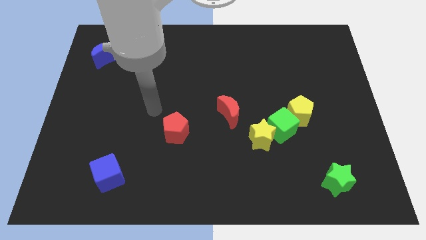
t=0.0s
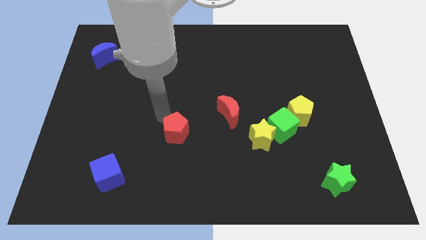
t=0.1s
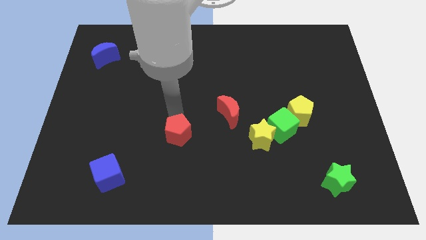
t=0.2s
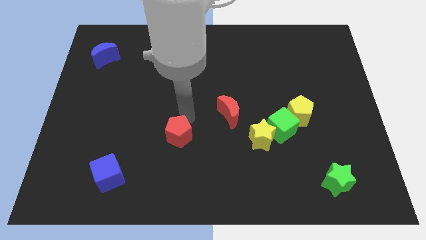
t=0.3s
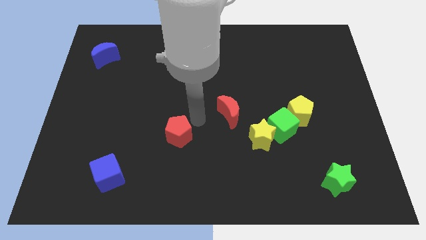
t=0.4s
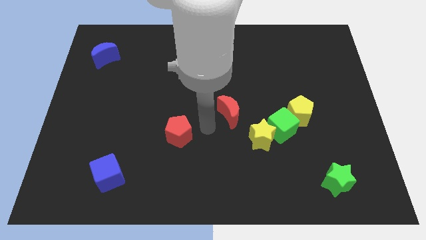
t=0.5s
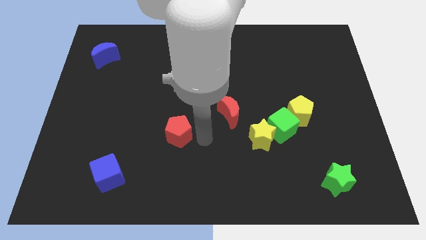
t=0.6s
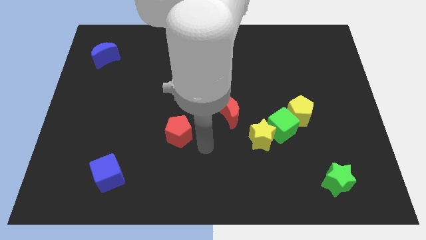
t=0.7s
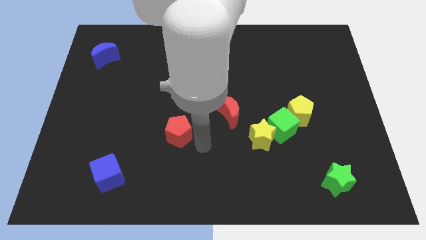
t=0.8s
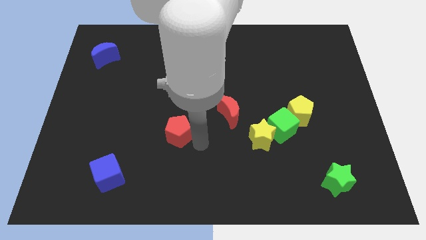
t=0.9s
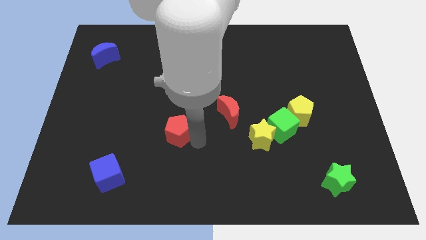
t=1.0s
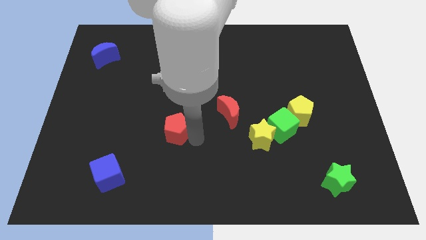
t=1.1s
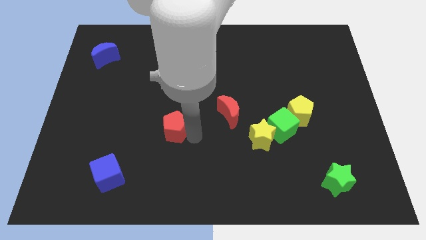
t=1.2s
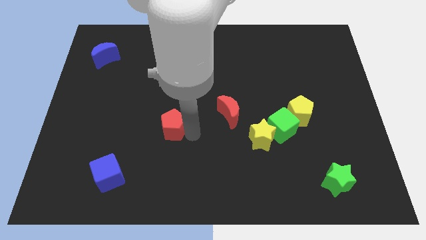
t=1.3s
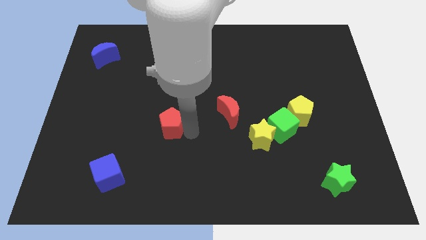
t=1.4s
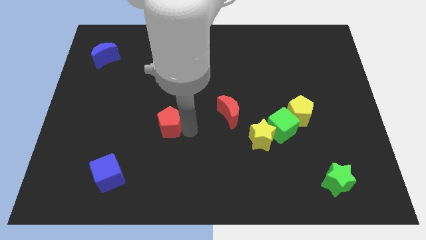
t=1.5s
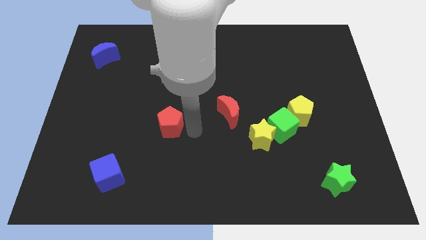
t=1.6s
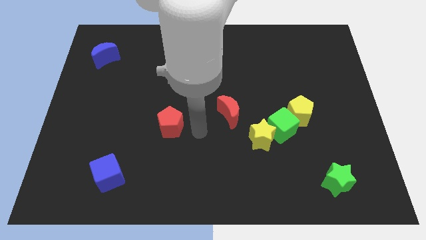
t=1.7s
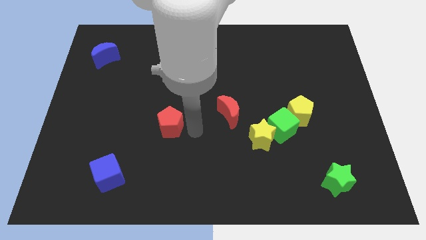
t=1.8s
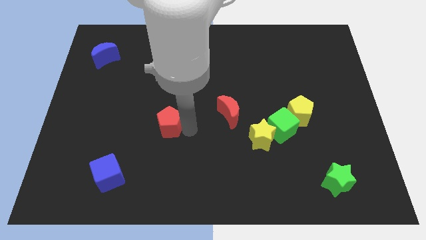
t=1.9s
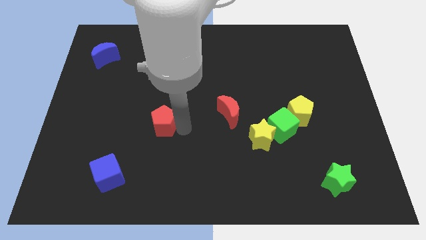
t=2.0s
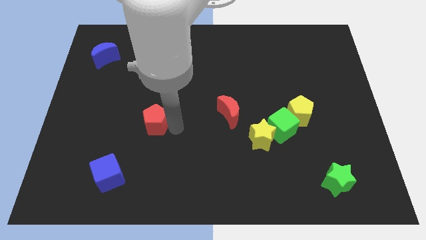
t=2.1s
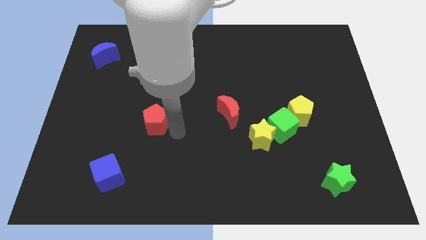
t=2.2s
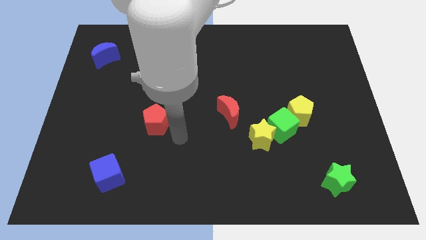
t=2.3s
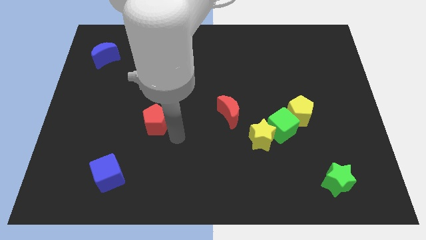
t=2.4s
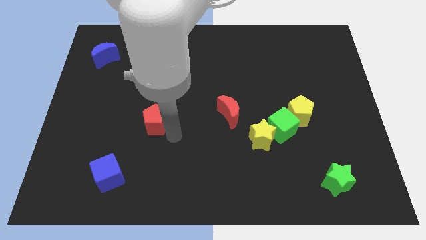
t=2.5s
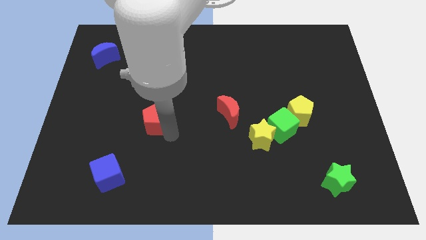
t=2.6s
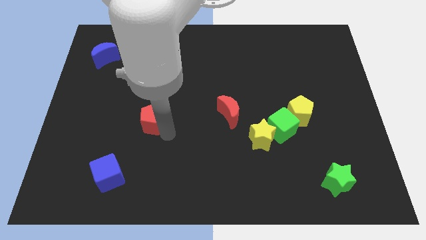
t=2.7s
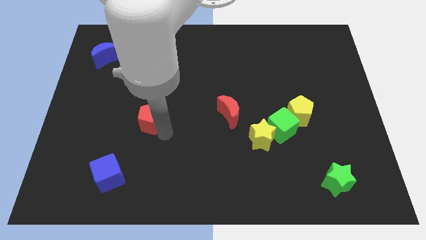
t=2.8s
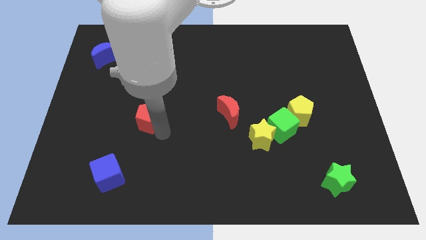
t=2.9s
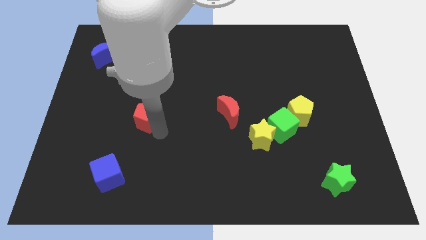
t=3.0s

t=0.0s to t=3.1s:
slightly push the red pentagon upwards and to the left

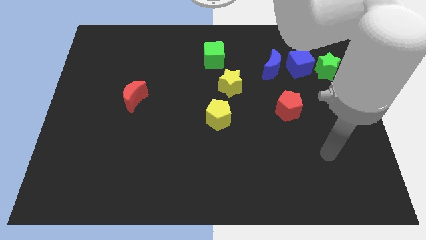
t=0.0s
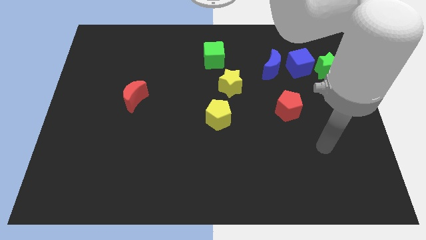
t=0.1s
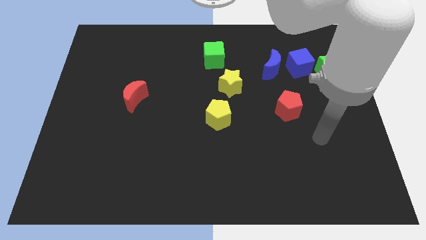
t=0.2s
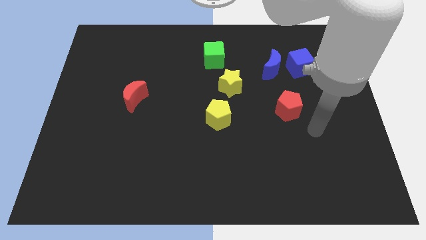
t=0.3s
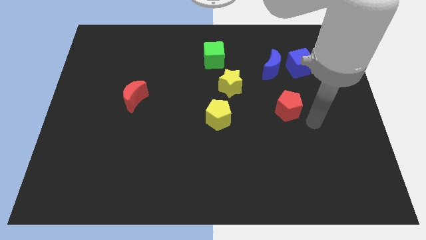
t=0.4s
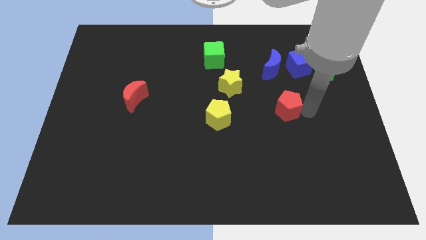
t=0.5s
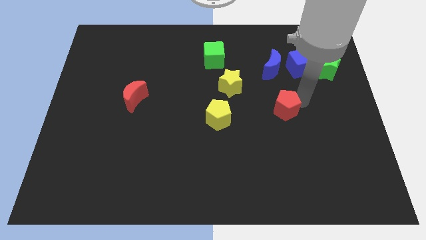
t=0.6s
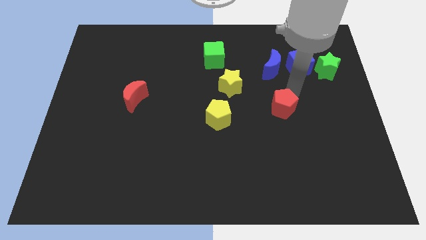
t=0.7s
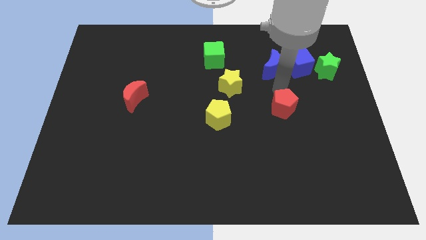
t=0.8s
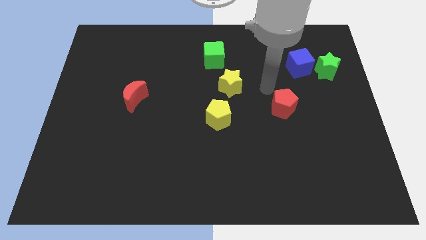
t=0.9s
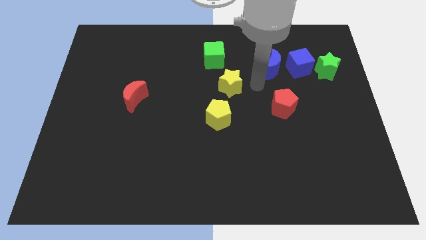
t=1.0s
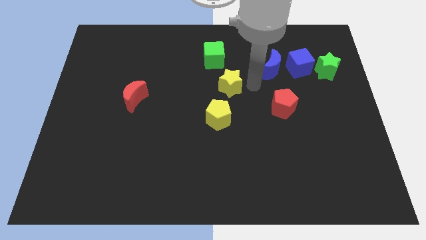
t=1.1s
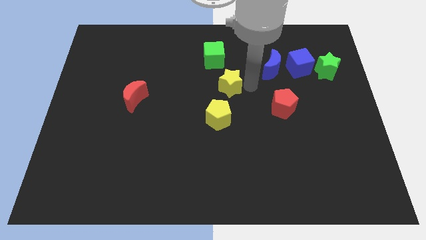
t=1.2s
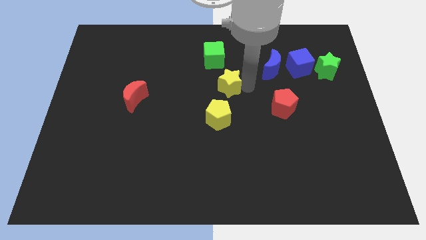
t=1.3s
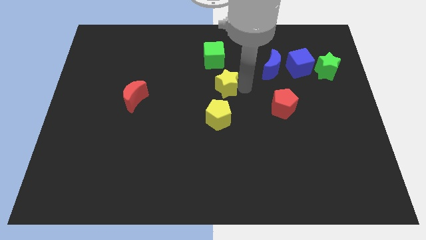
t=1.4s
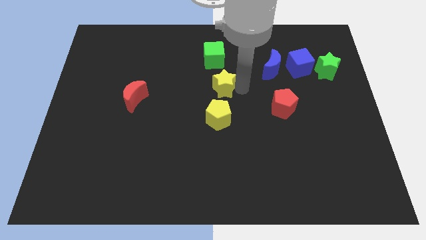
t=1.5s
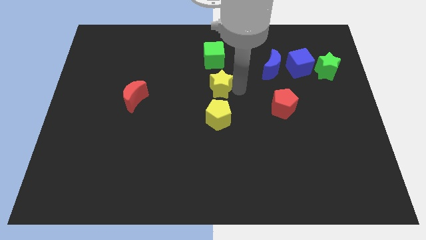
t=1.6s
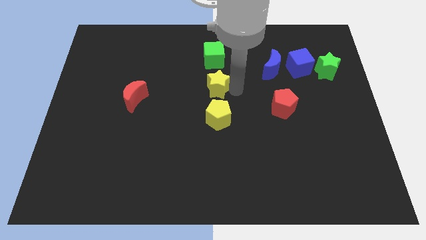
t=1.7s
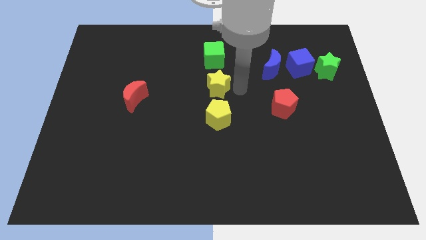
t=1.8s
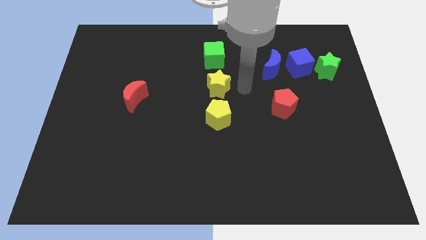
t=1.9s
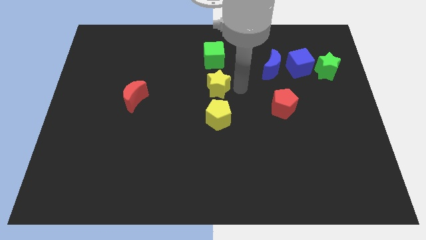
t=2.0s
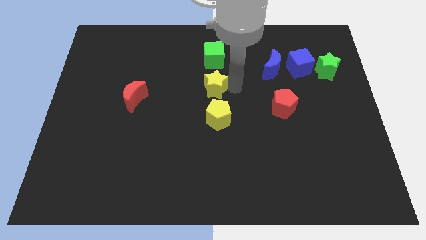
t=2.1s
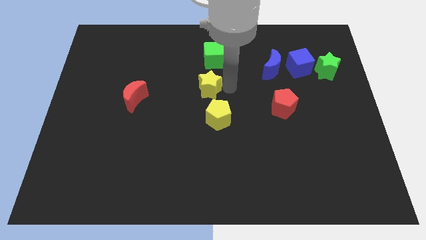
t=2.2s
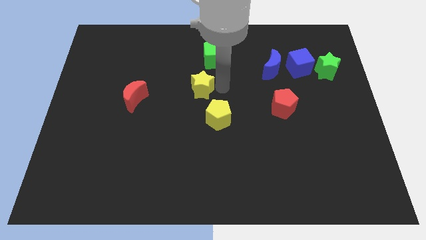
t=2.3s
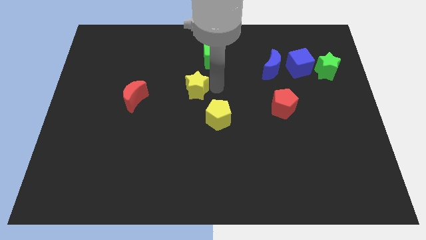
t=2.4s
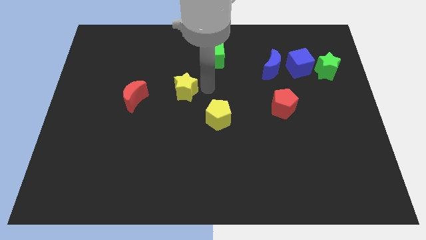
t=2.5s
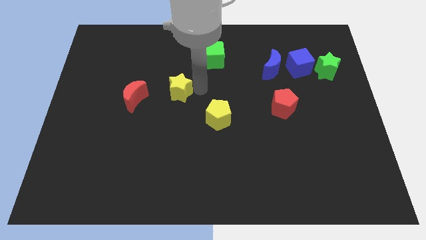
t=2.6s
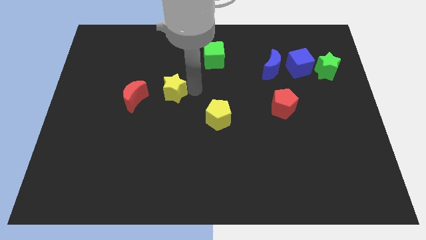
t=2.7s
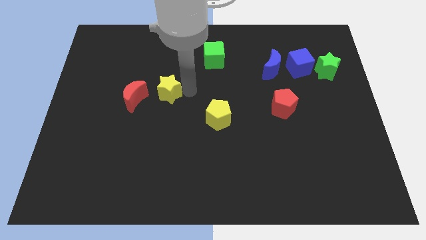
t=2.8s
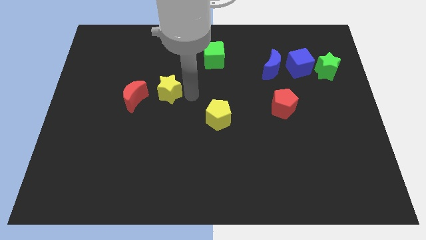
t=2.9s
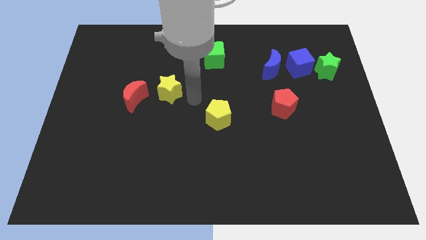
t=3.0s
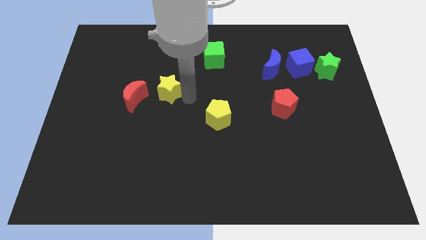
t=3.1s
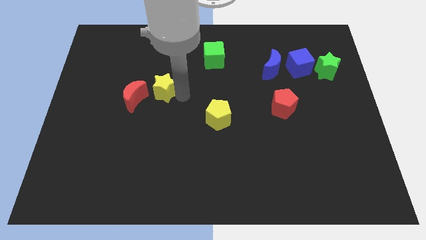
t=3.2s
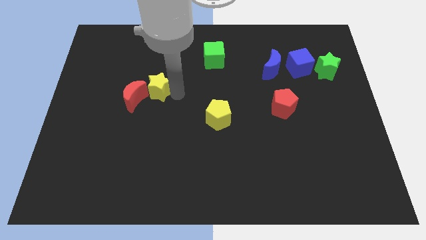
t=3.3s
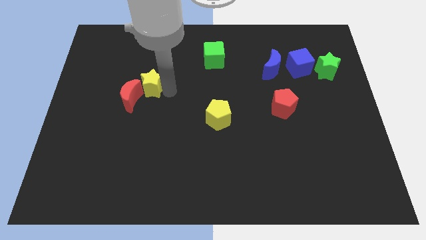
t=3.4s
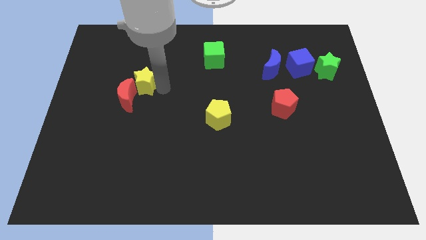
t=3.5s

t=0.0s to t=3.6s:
push the yellow star left

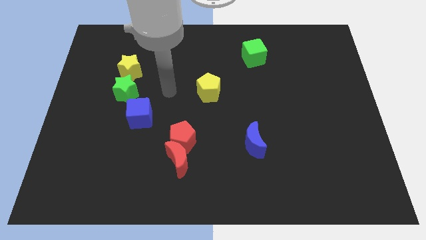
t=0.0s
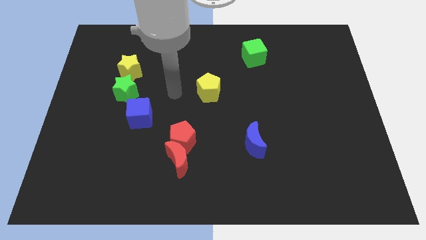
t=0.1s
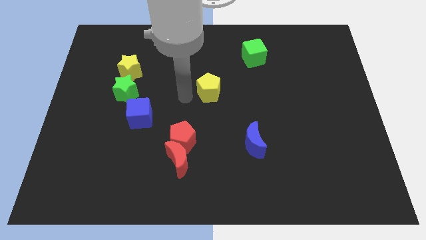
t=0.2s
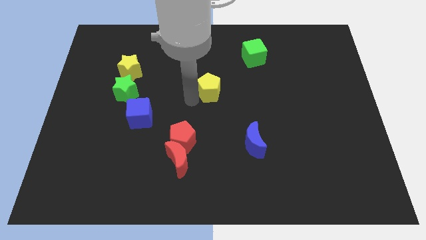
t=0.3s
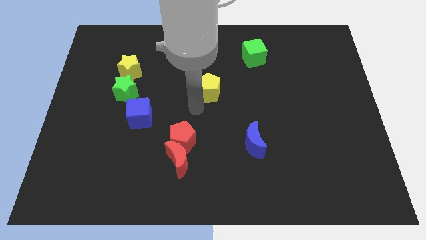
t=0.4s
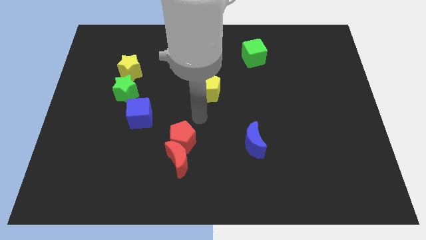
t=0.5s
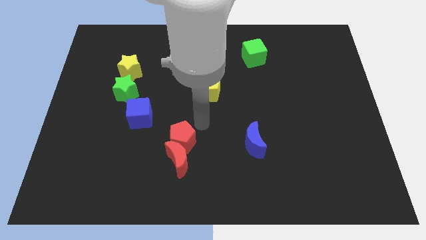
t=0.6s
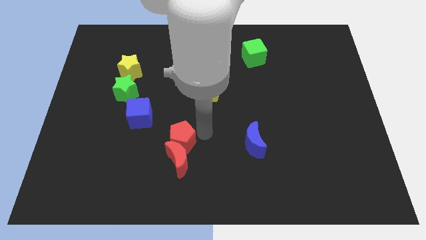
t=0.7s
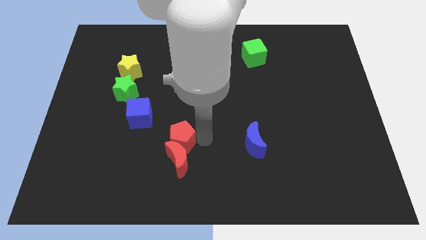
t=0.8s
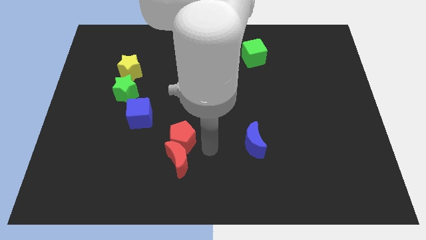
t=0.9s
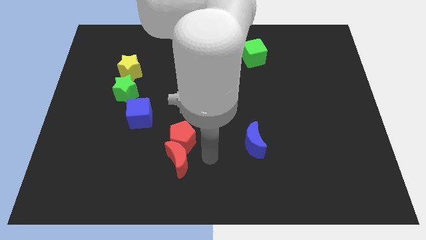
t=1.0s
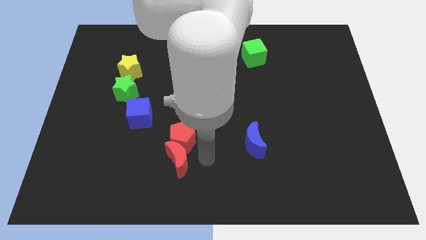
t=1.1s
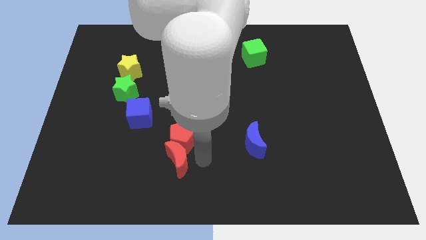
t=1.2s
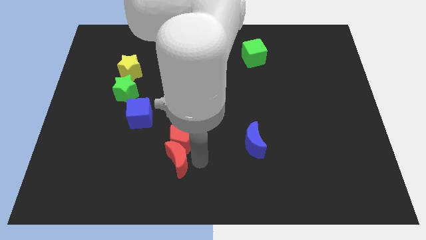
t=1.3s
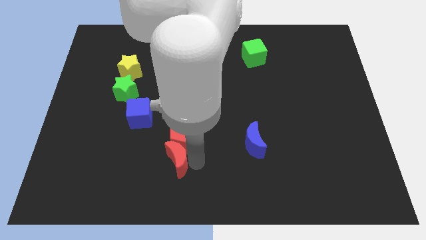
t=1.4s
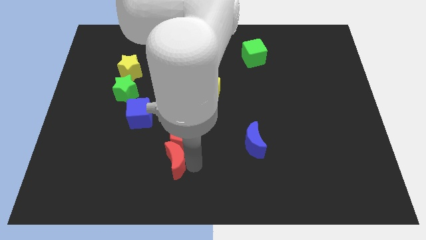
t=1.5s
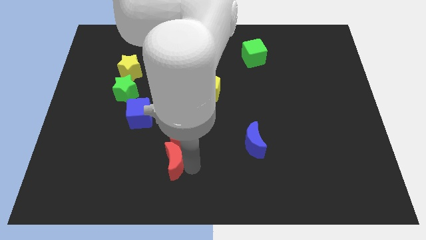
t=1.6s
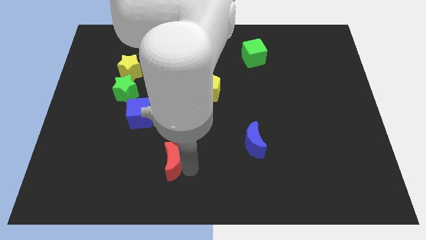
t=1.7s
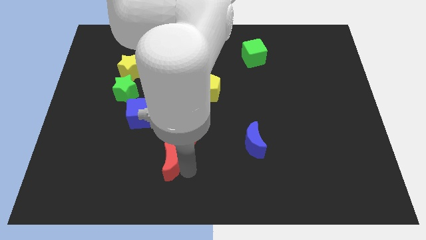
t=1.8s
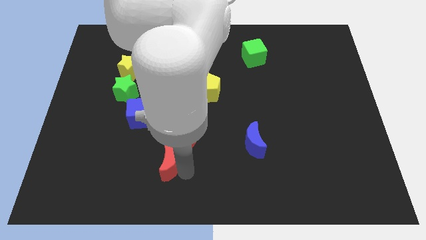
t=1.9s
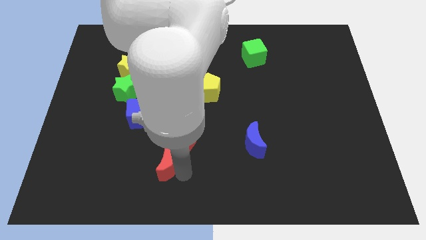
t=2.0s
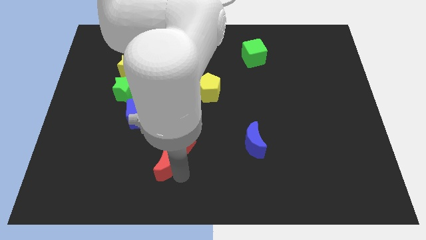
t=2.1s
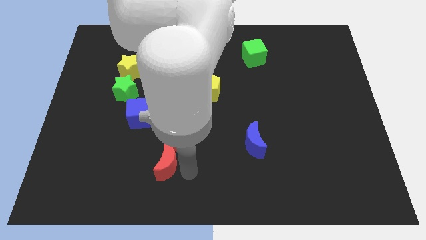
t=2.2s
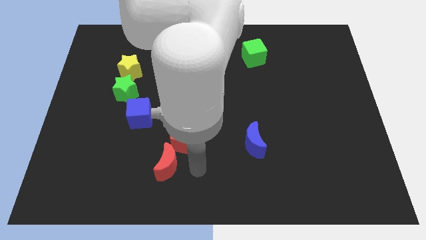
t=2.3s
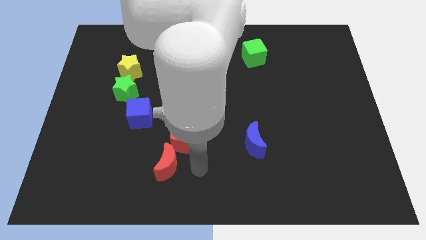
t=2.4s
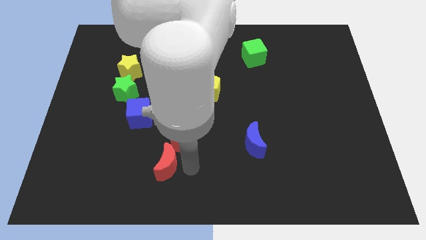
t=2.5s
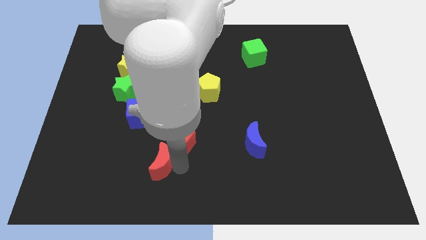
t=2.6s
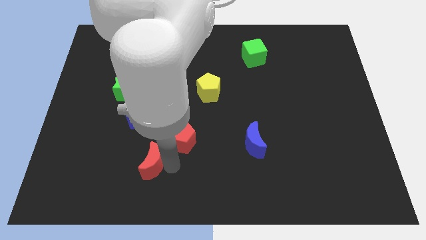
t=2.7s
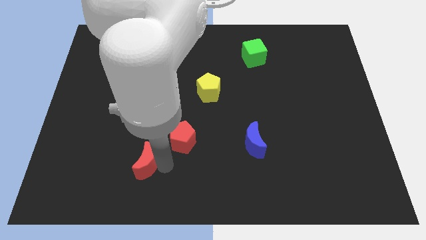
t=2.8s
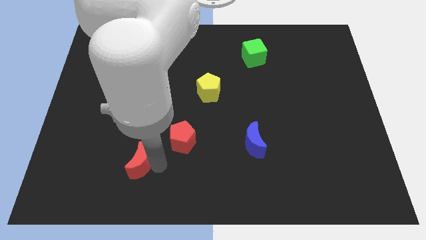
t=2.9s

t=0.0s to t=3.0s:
move the red moon to the left a bit
